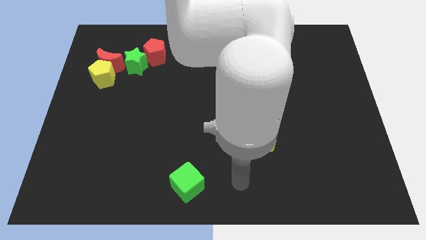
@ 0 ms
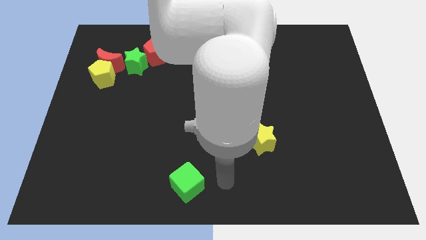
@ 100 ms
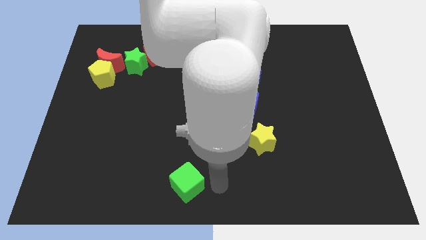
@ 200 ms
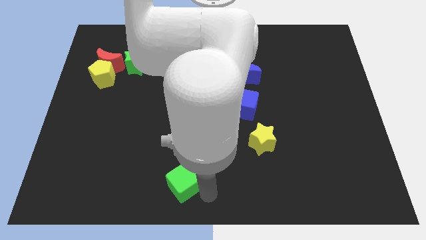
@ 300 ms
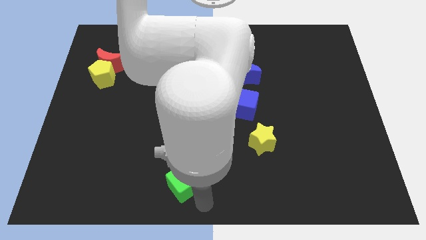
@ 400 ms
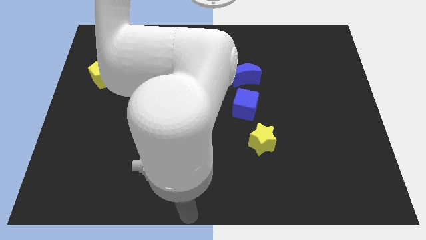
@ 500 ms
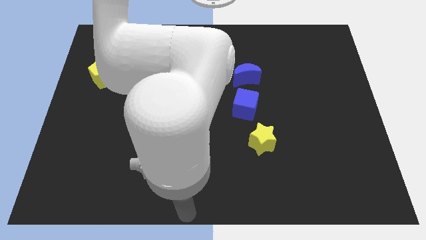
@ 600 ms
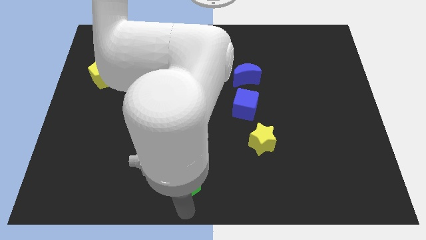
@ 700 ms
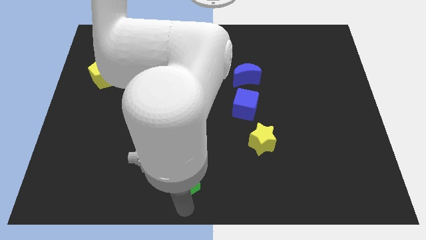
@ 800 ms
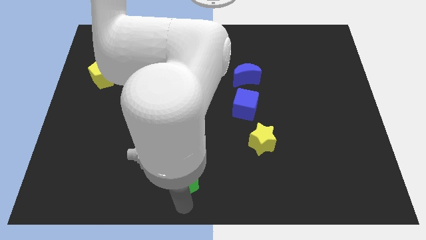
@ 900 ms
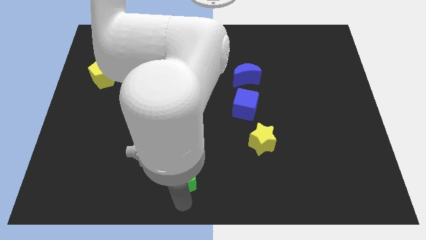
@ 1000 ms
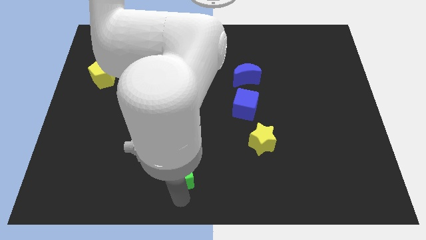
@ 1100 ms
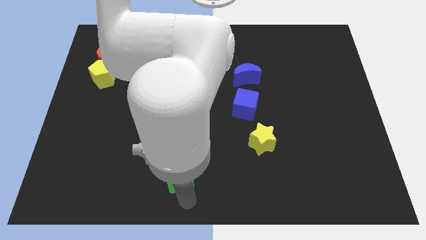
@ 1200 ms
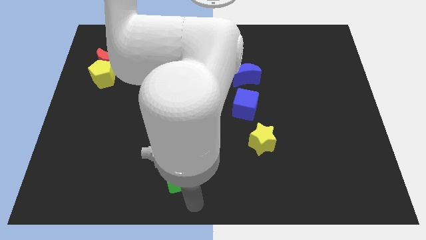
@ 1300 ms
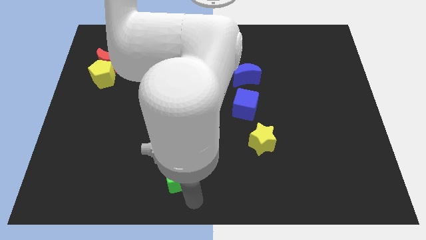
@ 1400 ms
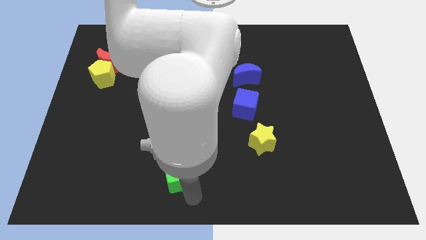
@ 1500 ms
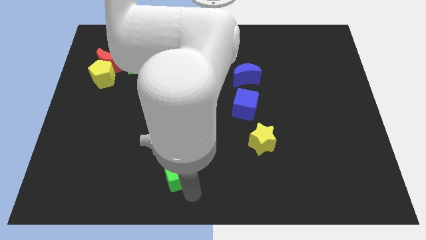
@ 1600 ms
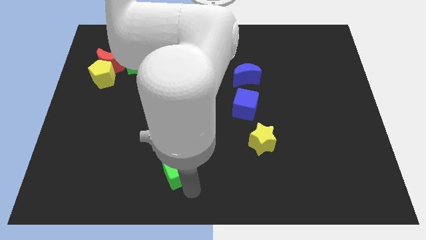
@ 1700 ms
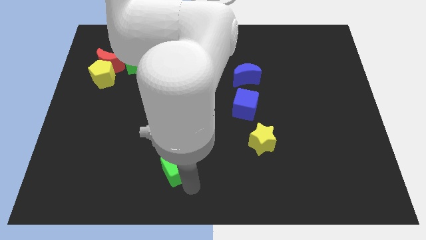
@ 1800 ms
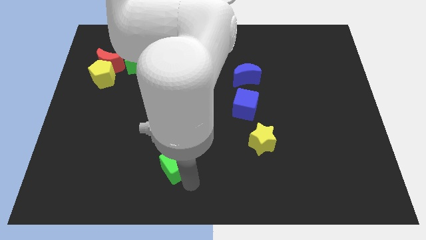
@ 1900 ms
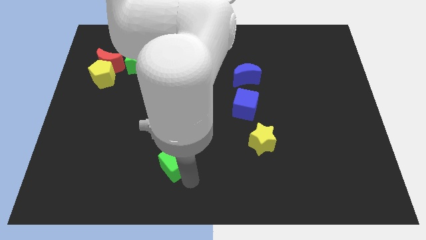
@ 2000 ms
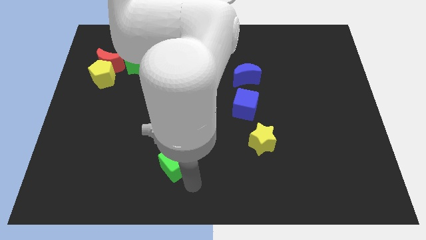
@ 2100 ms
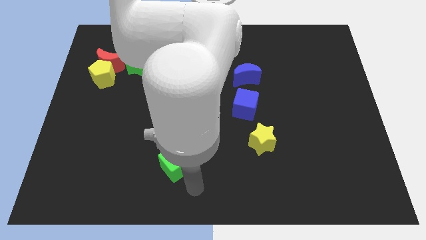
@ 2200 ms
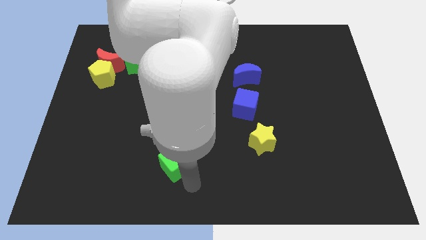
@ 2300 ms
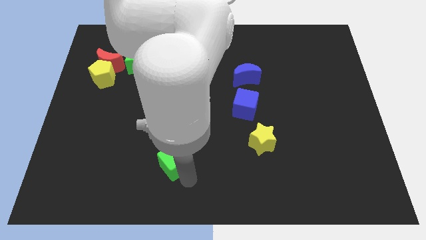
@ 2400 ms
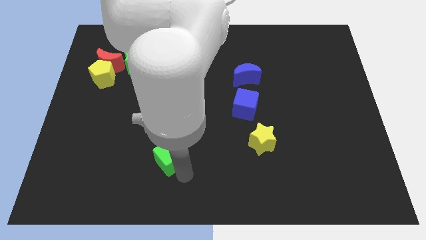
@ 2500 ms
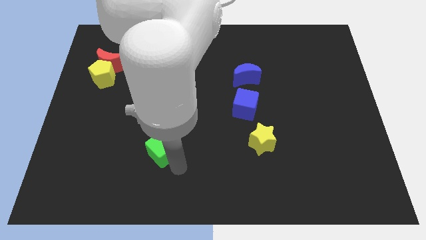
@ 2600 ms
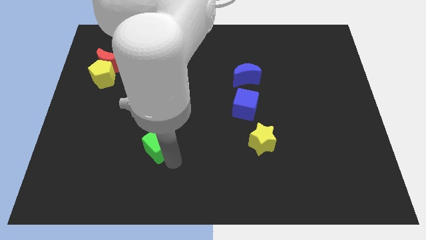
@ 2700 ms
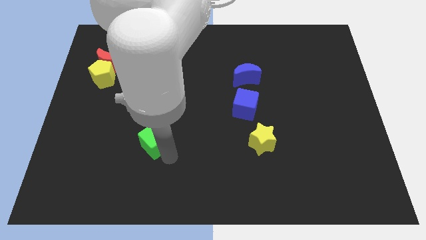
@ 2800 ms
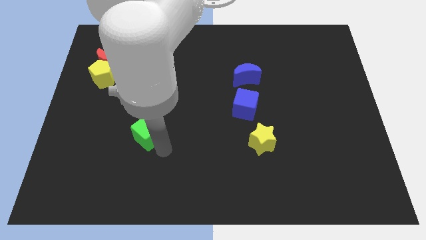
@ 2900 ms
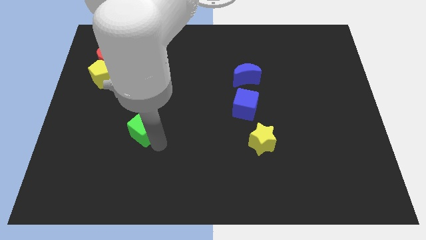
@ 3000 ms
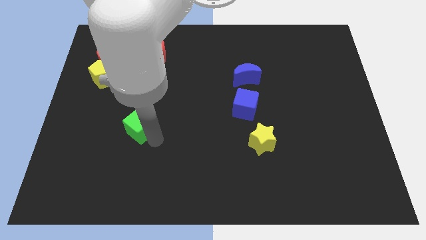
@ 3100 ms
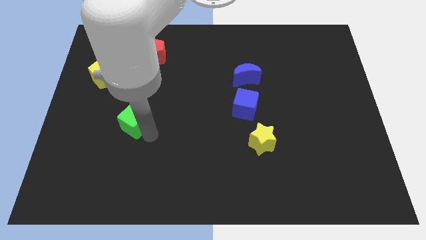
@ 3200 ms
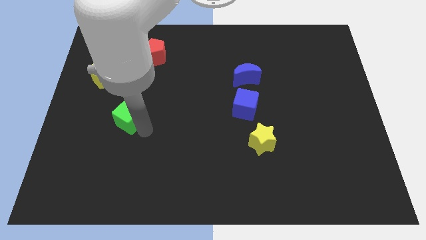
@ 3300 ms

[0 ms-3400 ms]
push the green cube up and then to the left

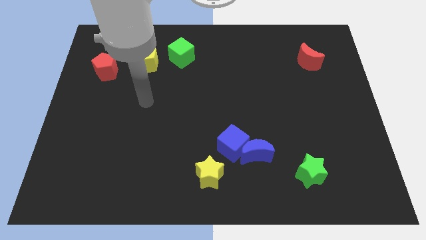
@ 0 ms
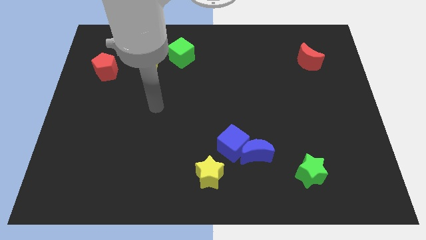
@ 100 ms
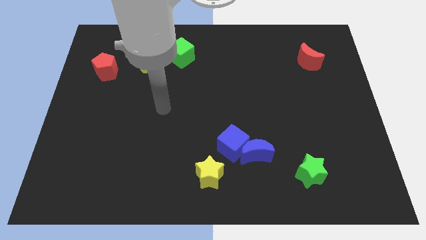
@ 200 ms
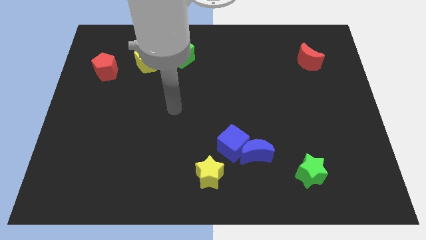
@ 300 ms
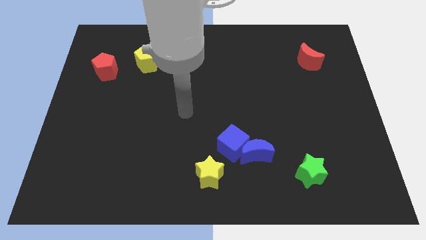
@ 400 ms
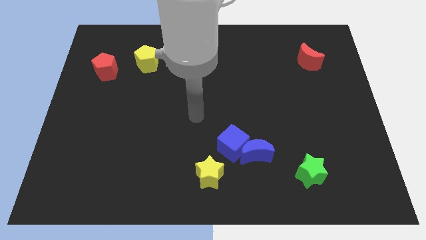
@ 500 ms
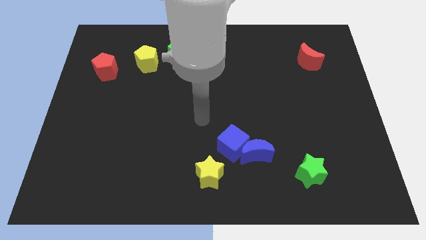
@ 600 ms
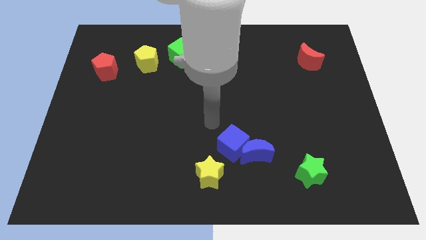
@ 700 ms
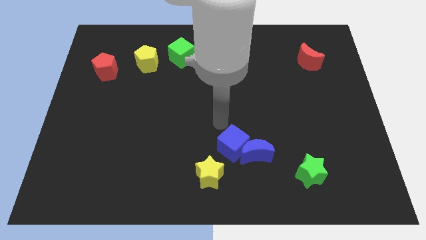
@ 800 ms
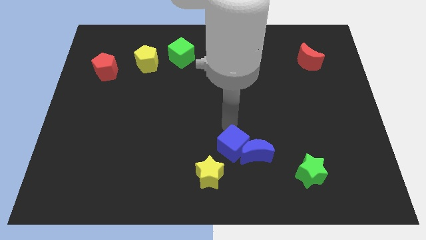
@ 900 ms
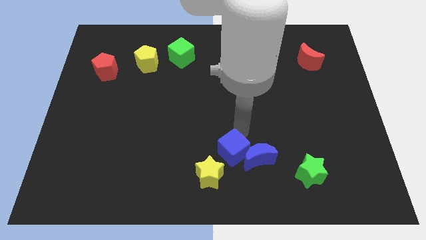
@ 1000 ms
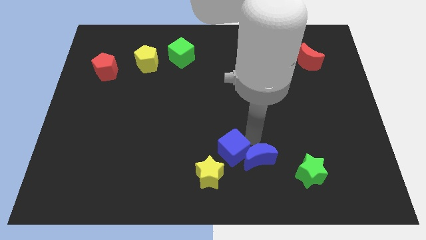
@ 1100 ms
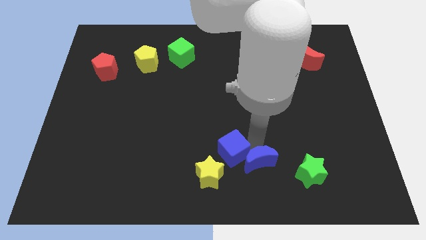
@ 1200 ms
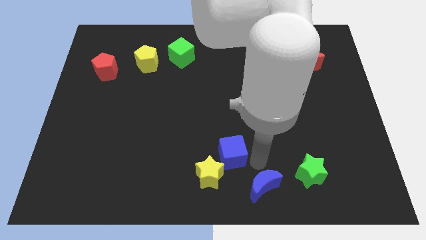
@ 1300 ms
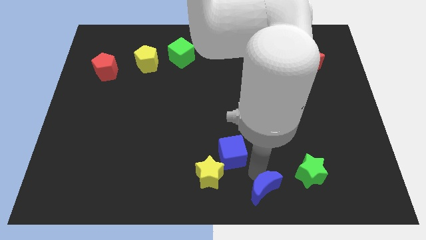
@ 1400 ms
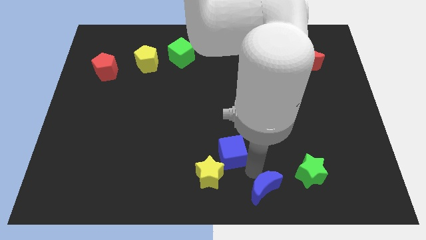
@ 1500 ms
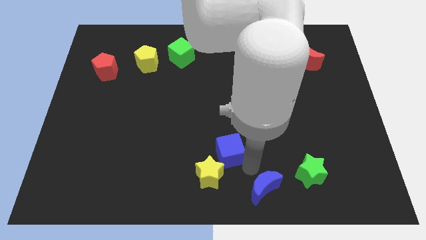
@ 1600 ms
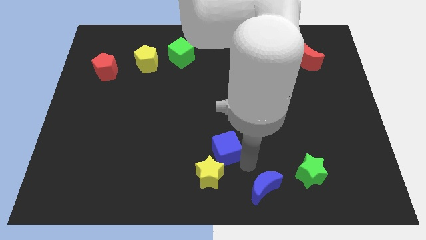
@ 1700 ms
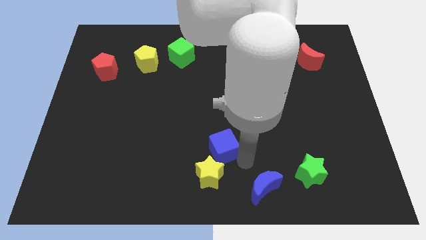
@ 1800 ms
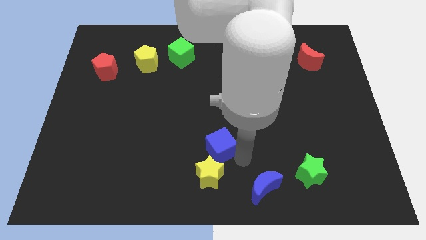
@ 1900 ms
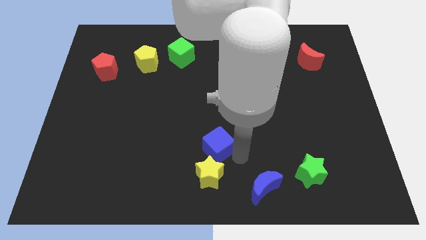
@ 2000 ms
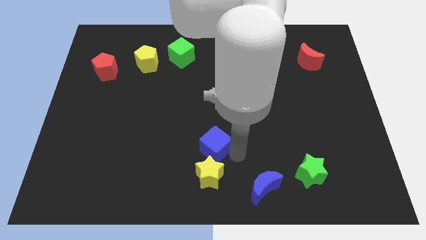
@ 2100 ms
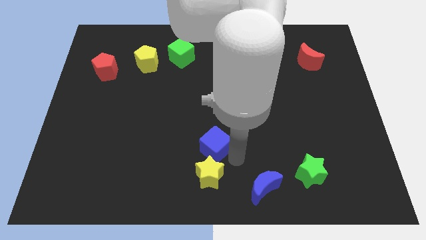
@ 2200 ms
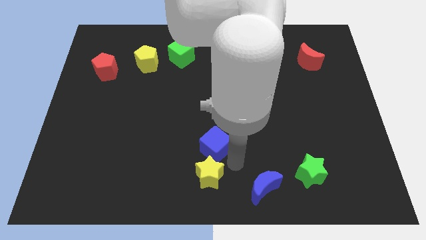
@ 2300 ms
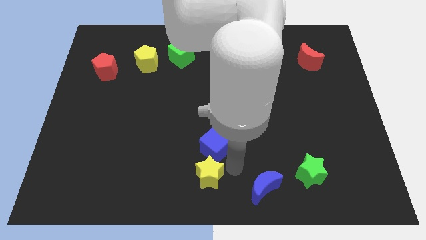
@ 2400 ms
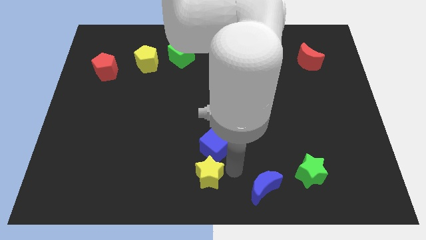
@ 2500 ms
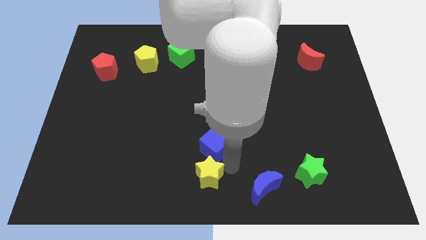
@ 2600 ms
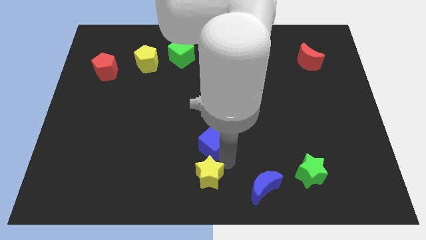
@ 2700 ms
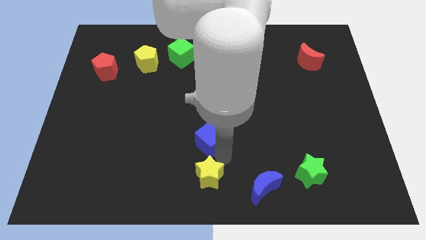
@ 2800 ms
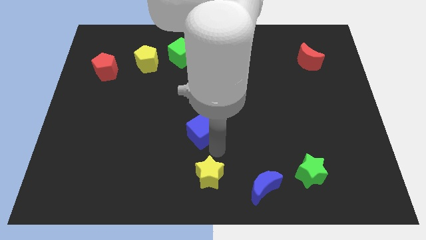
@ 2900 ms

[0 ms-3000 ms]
move the blue cube slightly diagonally upwards and left

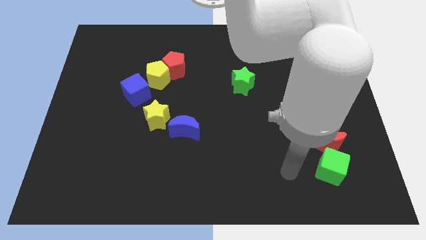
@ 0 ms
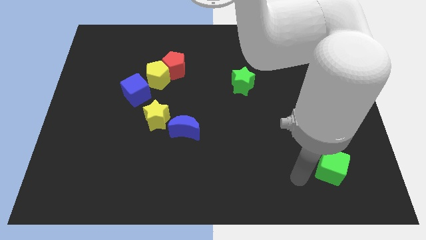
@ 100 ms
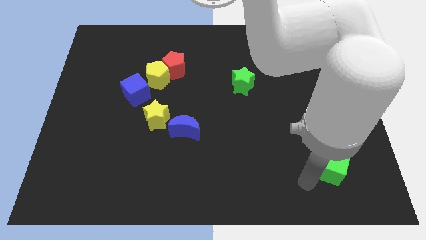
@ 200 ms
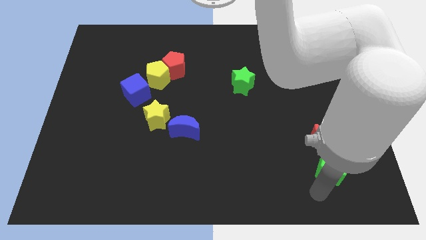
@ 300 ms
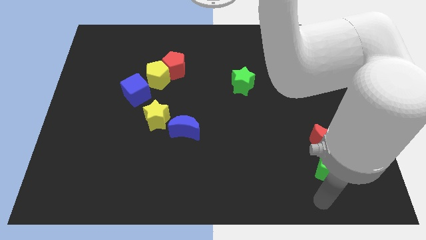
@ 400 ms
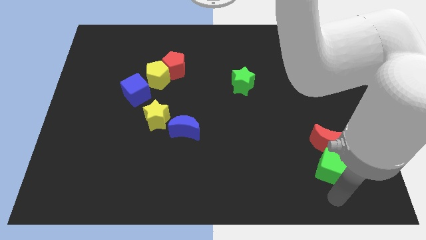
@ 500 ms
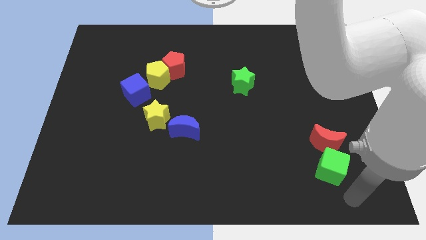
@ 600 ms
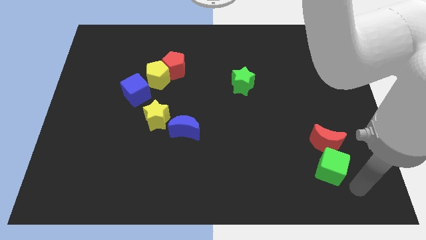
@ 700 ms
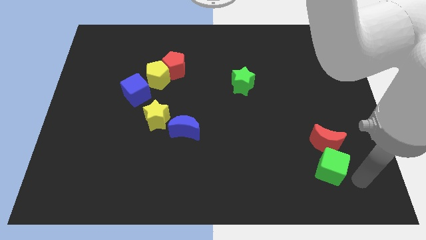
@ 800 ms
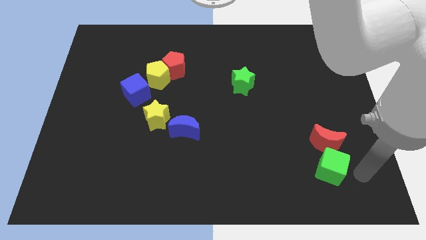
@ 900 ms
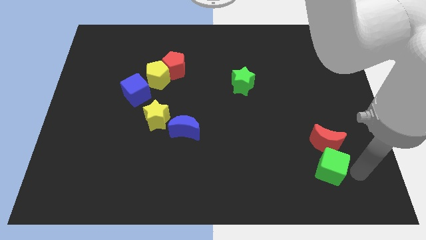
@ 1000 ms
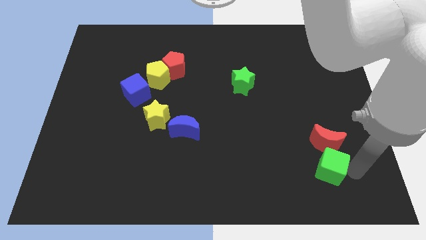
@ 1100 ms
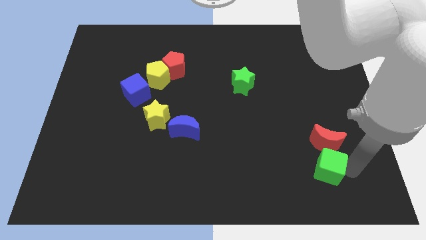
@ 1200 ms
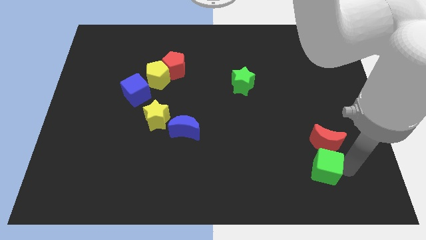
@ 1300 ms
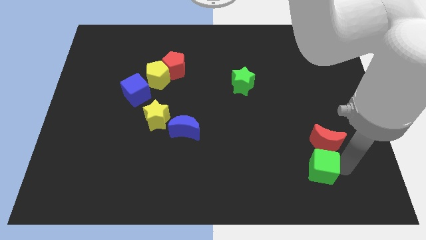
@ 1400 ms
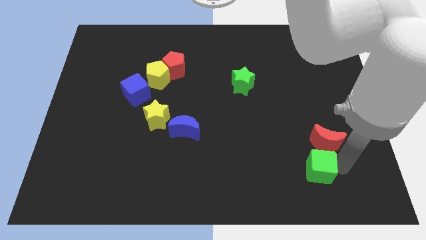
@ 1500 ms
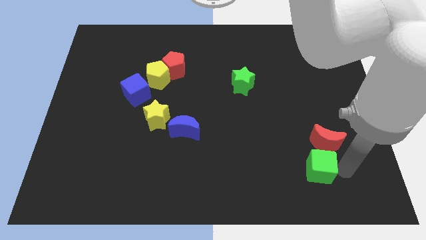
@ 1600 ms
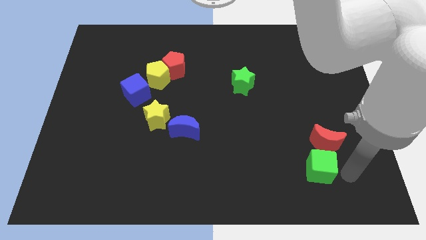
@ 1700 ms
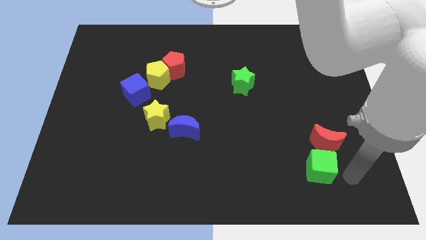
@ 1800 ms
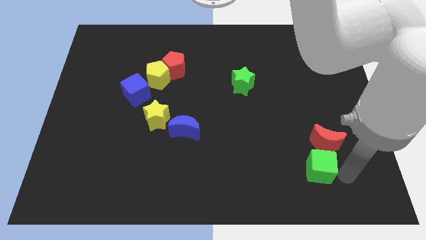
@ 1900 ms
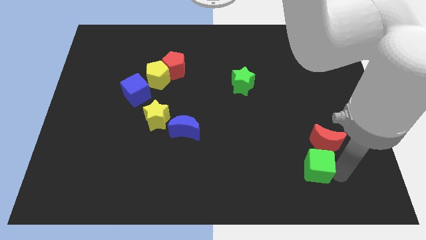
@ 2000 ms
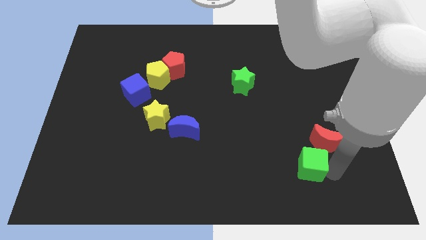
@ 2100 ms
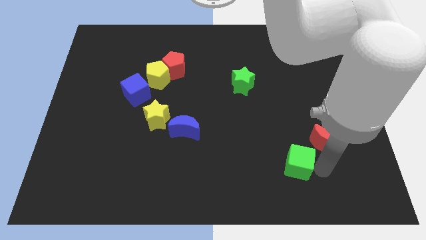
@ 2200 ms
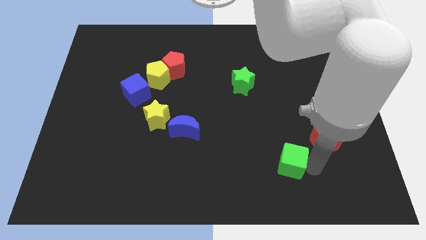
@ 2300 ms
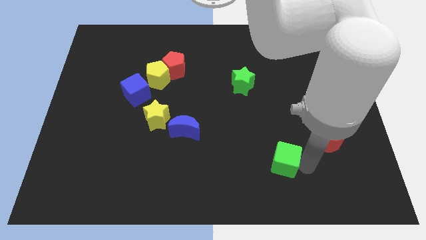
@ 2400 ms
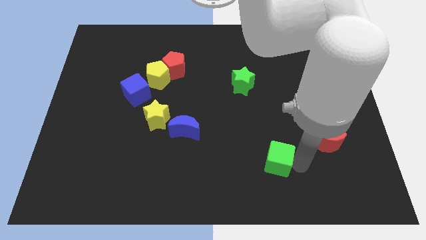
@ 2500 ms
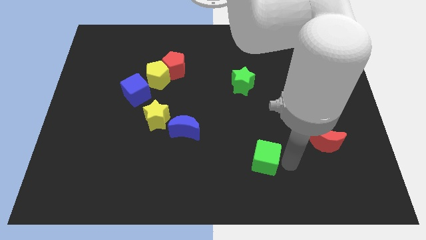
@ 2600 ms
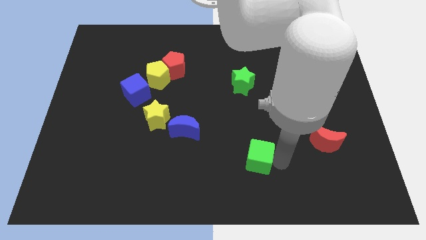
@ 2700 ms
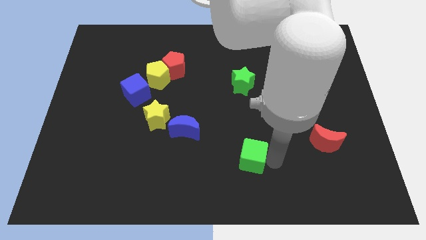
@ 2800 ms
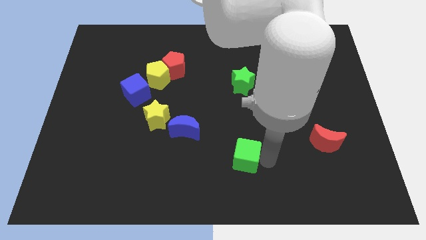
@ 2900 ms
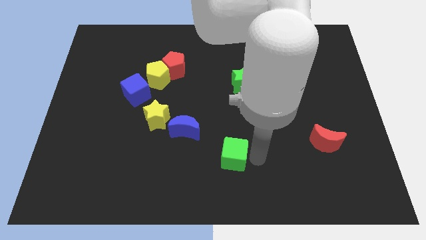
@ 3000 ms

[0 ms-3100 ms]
slide the green cube to the left
